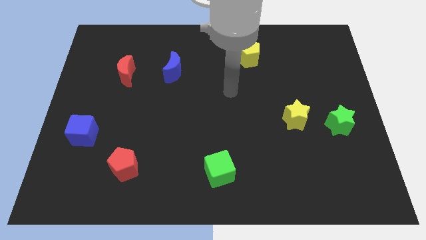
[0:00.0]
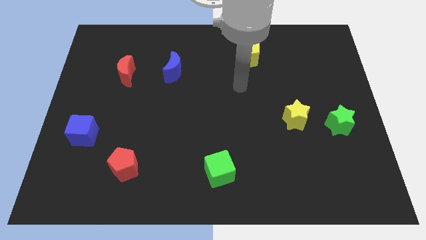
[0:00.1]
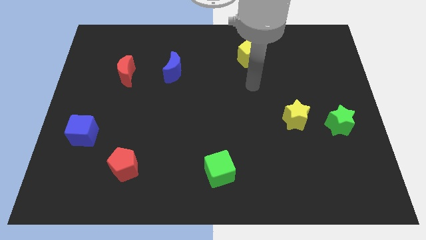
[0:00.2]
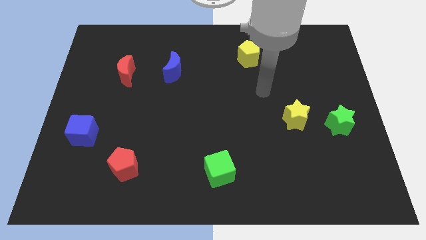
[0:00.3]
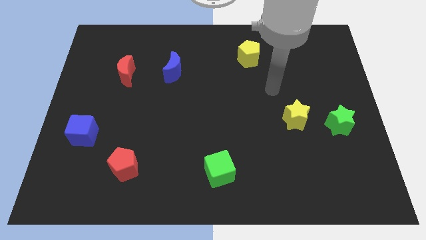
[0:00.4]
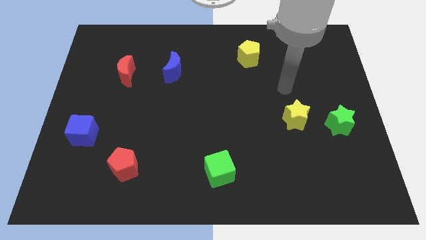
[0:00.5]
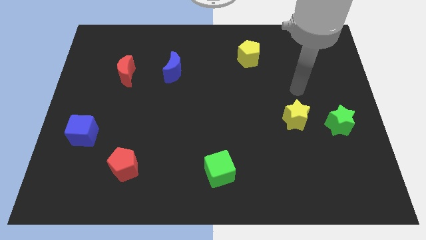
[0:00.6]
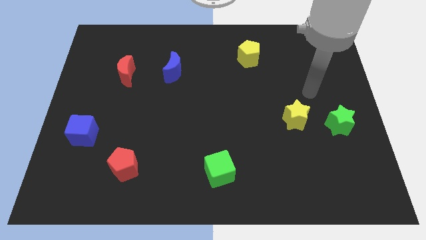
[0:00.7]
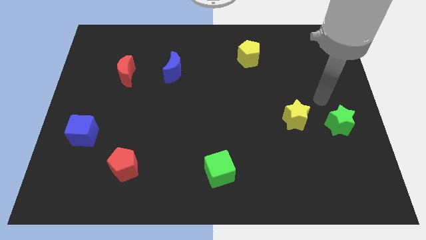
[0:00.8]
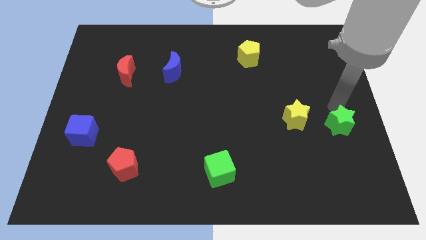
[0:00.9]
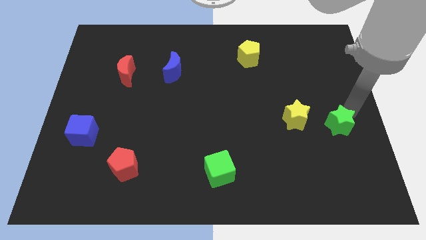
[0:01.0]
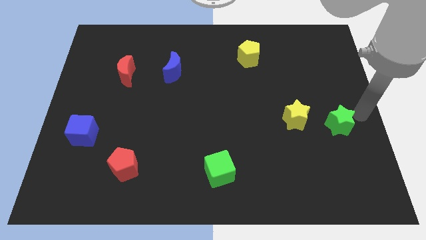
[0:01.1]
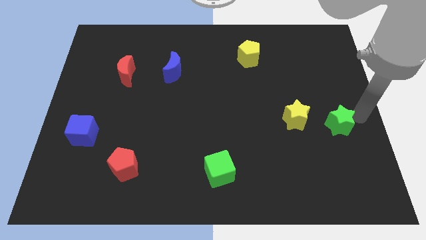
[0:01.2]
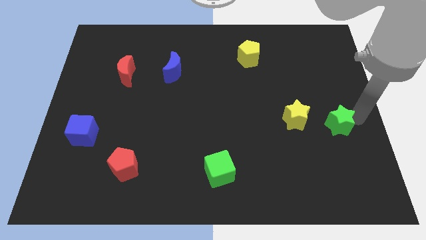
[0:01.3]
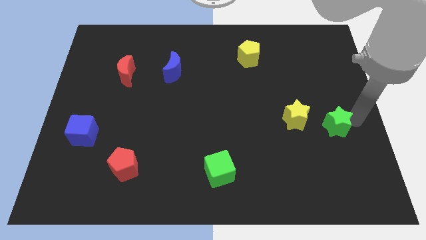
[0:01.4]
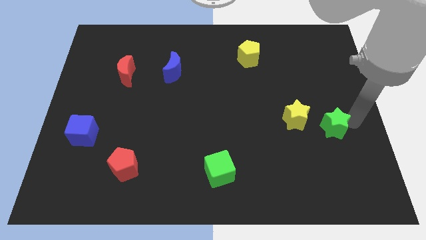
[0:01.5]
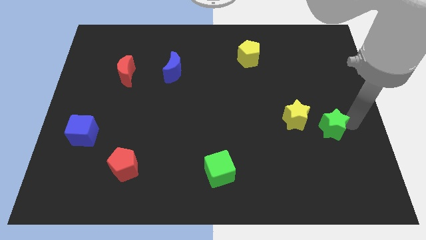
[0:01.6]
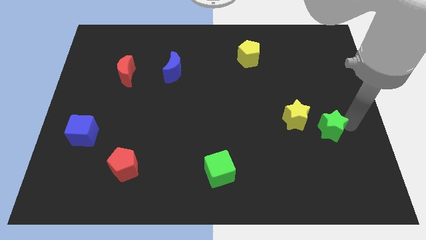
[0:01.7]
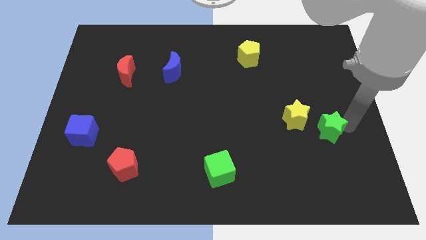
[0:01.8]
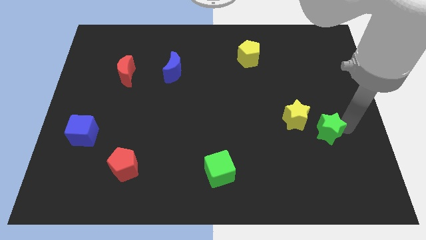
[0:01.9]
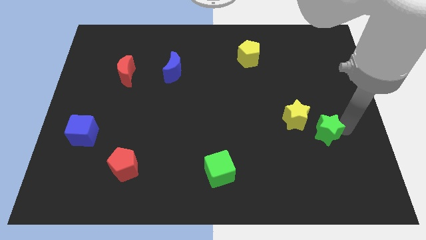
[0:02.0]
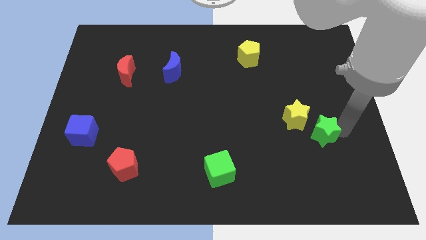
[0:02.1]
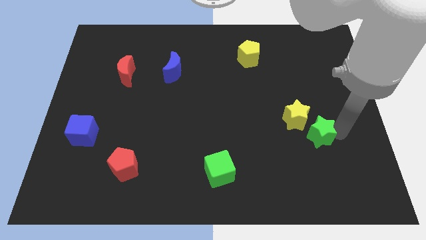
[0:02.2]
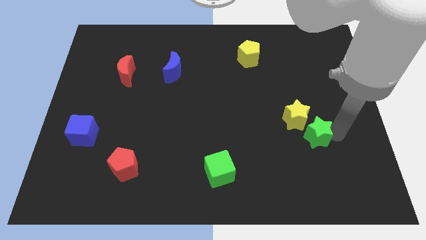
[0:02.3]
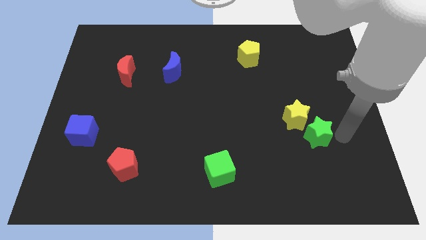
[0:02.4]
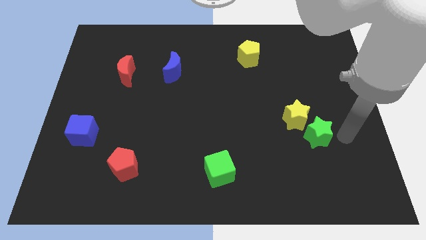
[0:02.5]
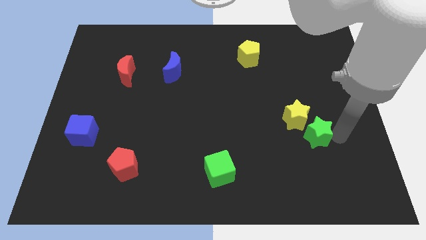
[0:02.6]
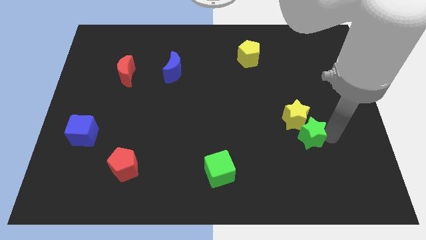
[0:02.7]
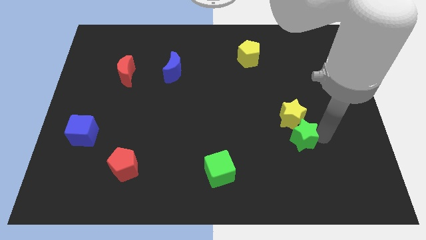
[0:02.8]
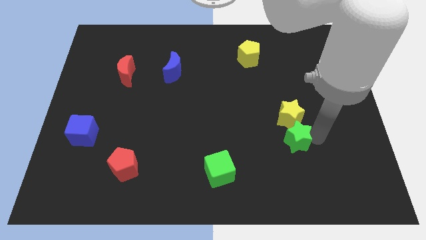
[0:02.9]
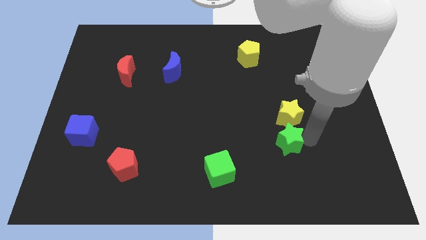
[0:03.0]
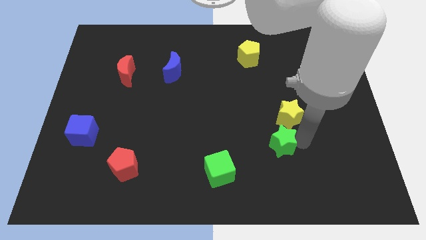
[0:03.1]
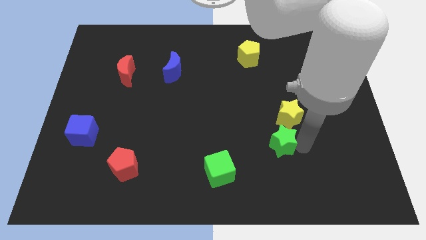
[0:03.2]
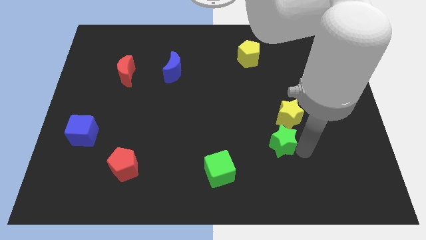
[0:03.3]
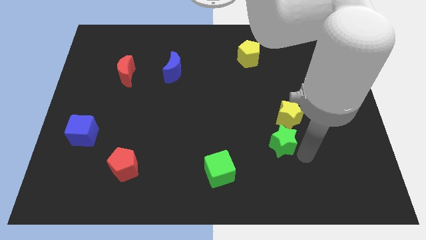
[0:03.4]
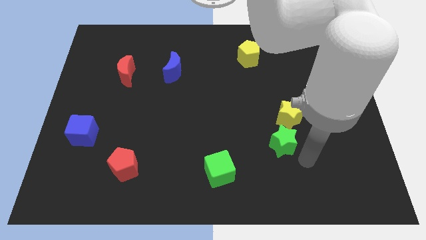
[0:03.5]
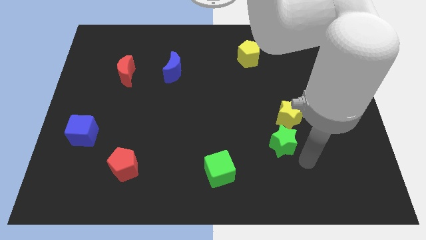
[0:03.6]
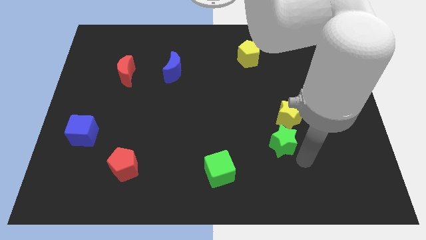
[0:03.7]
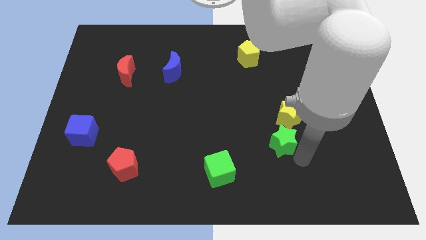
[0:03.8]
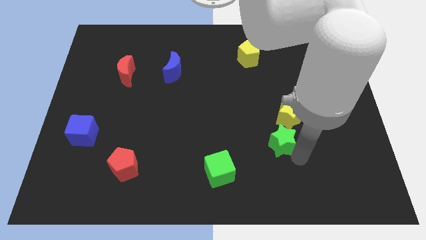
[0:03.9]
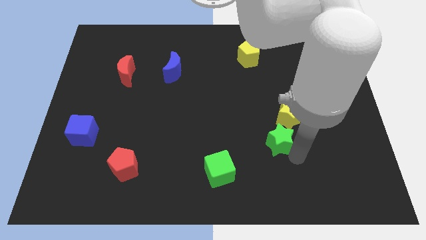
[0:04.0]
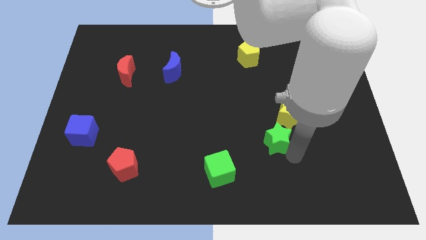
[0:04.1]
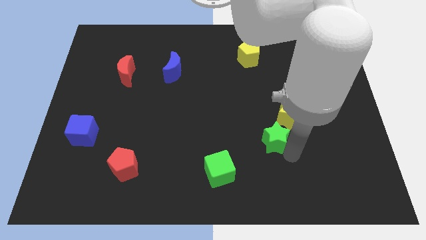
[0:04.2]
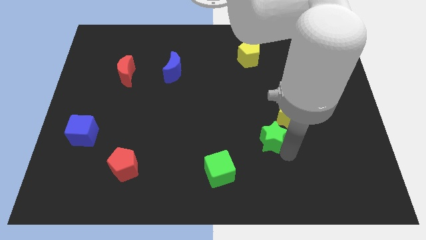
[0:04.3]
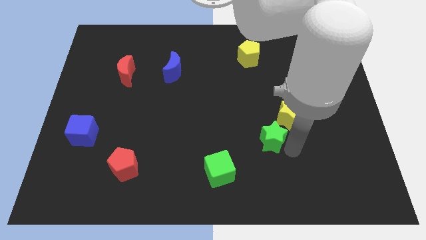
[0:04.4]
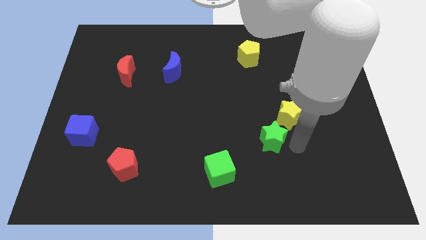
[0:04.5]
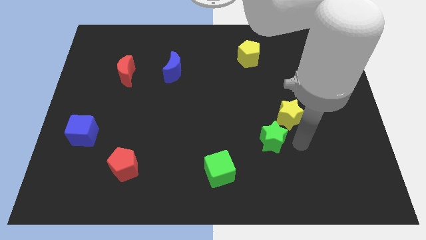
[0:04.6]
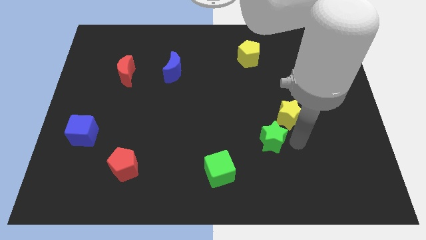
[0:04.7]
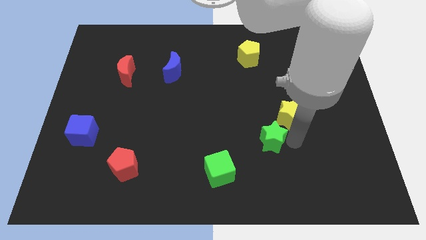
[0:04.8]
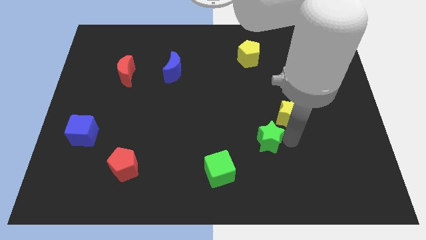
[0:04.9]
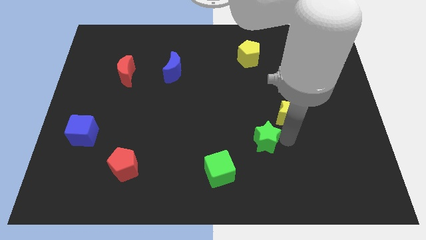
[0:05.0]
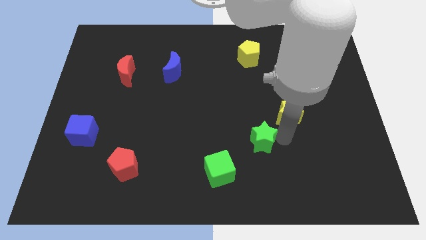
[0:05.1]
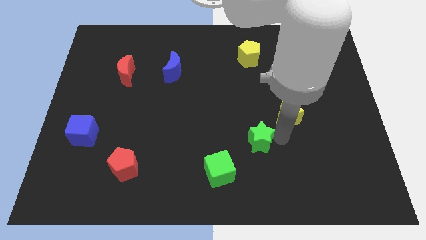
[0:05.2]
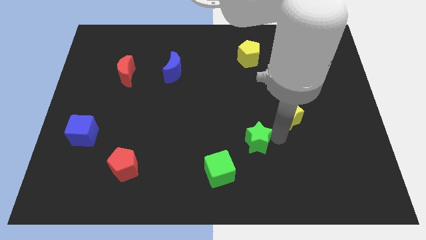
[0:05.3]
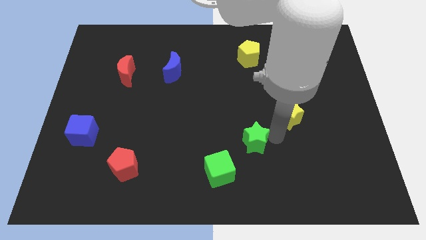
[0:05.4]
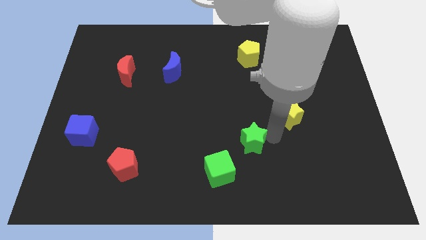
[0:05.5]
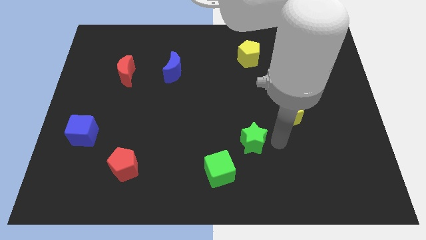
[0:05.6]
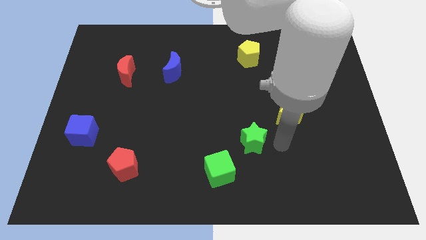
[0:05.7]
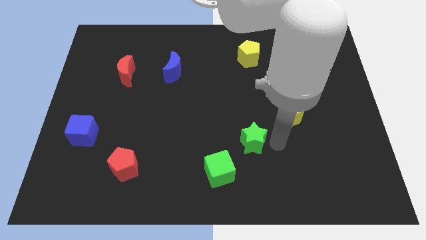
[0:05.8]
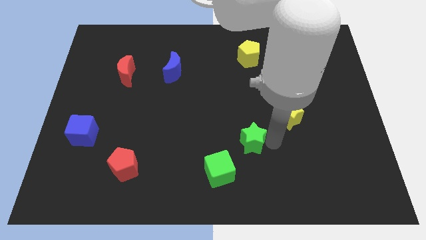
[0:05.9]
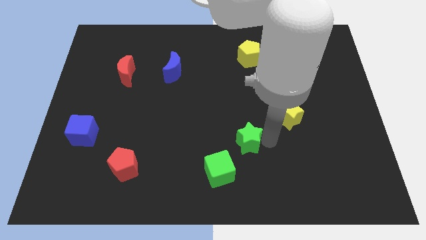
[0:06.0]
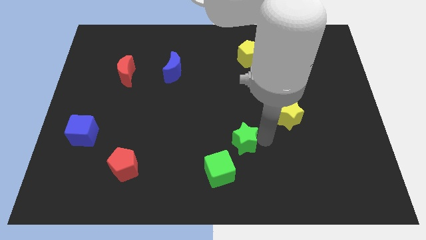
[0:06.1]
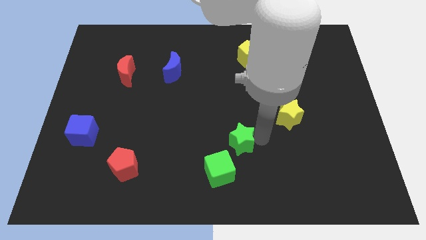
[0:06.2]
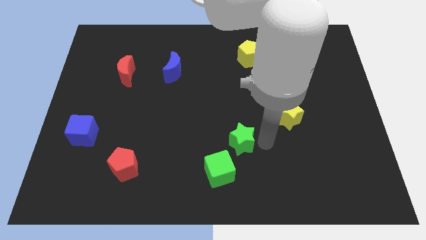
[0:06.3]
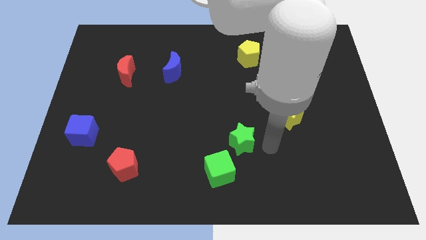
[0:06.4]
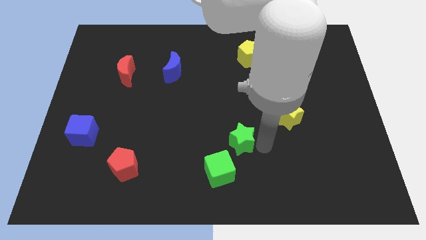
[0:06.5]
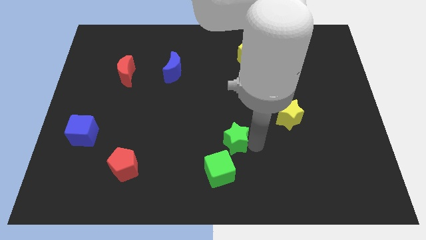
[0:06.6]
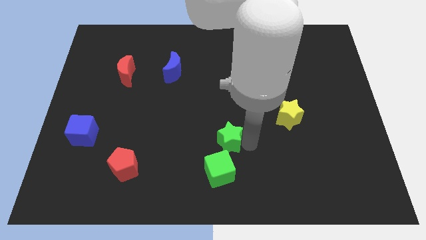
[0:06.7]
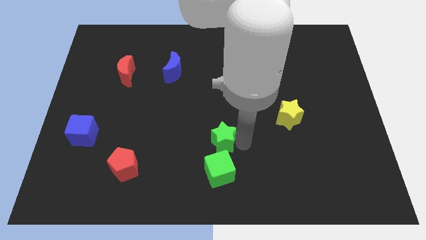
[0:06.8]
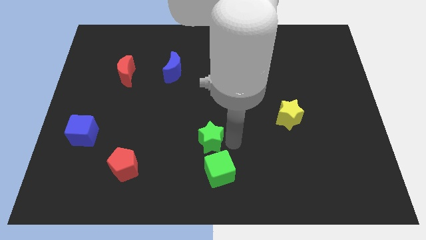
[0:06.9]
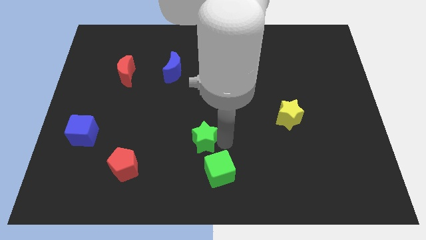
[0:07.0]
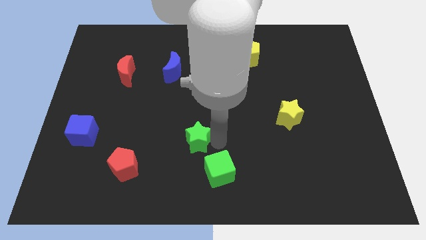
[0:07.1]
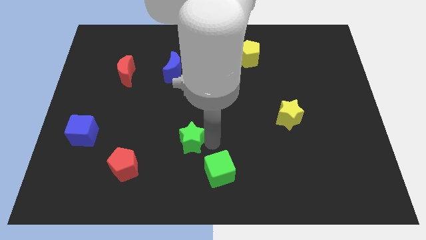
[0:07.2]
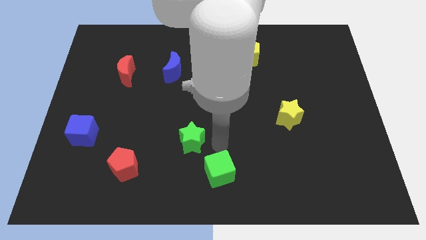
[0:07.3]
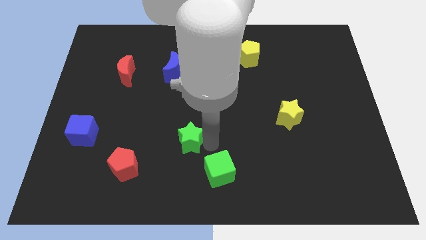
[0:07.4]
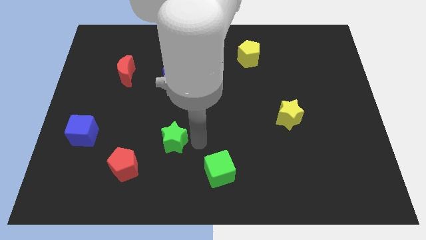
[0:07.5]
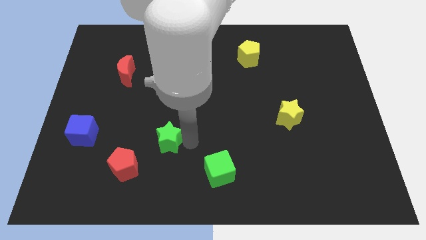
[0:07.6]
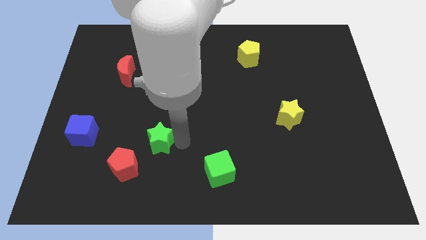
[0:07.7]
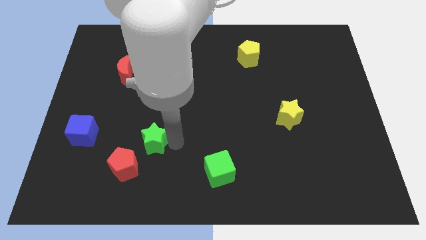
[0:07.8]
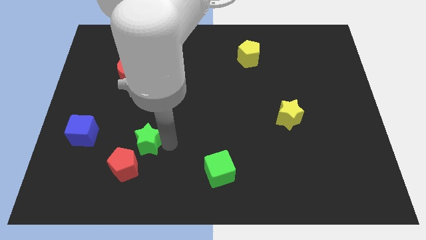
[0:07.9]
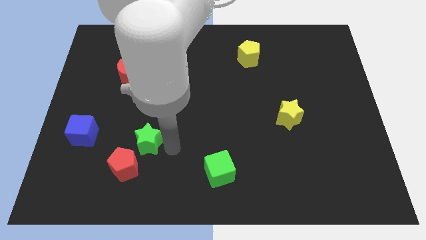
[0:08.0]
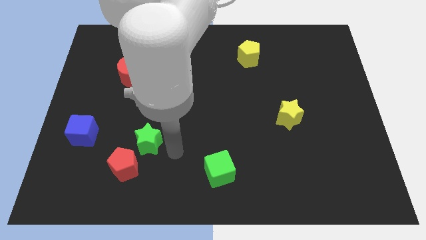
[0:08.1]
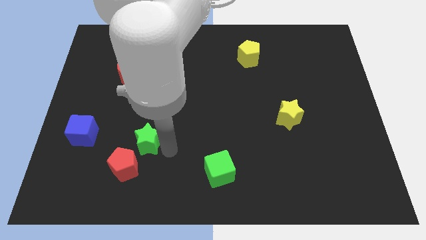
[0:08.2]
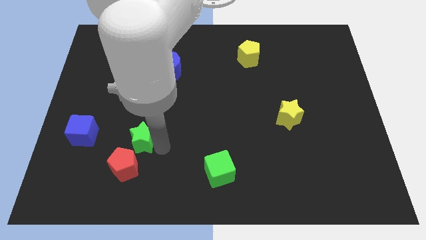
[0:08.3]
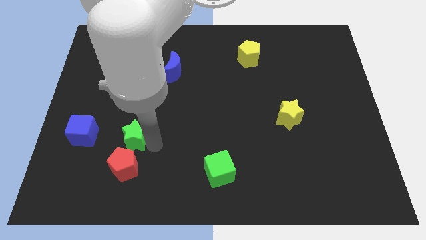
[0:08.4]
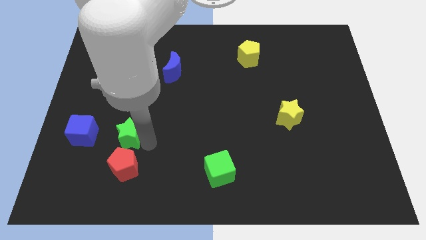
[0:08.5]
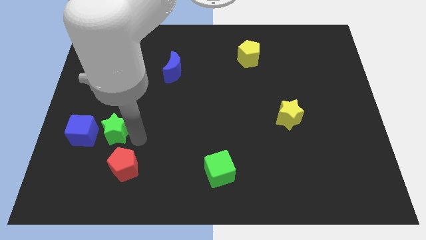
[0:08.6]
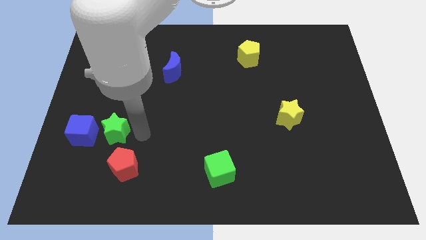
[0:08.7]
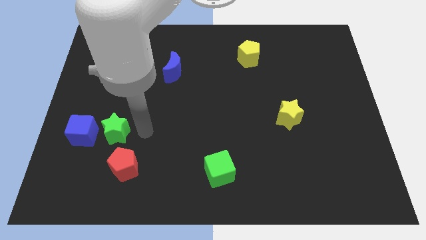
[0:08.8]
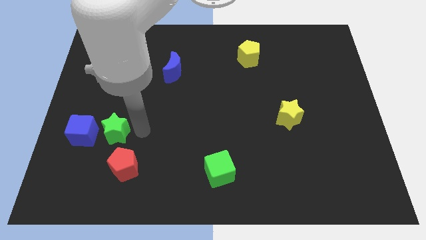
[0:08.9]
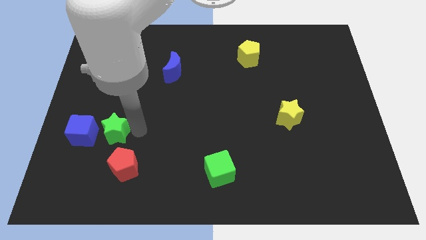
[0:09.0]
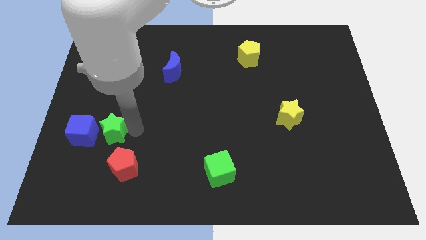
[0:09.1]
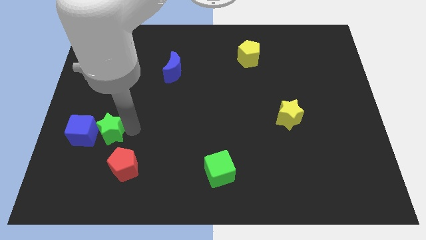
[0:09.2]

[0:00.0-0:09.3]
put the green star to the blue cube
